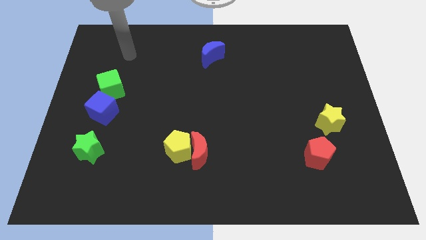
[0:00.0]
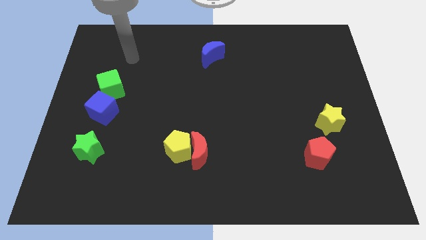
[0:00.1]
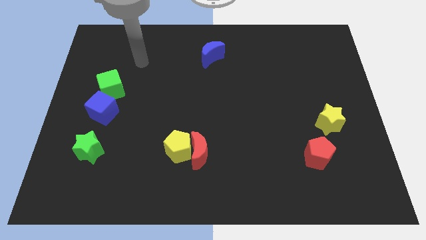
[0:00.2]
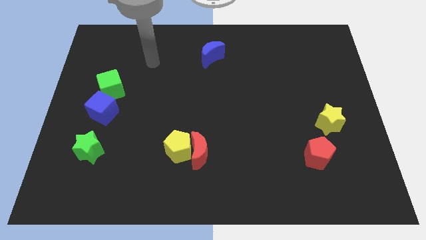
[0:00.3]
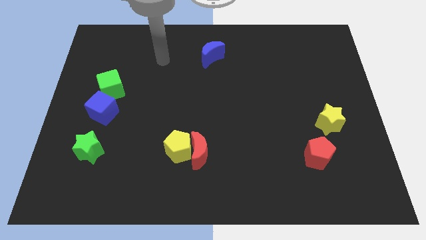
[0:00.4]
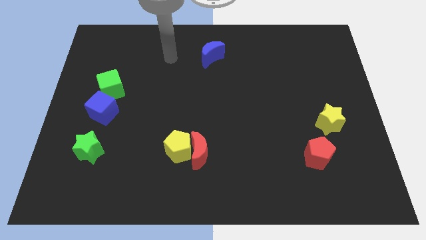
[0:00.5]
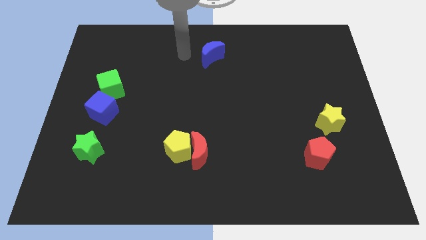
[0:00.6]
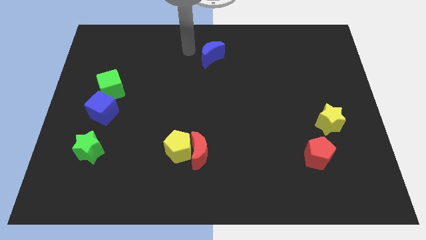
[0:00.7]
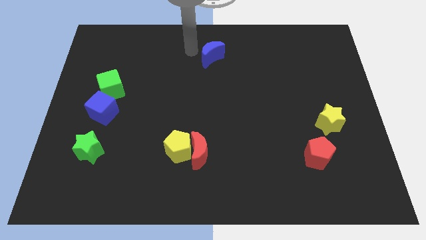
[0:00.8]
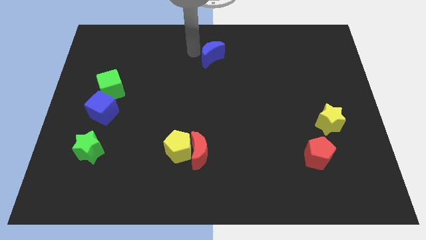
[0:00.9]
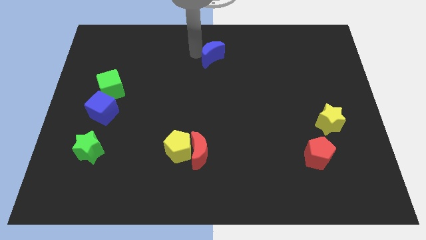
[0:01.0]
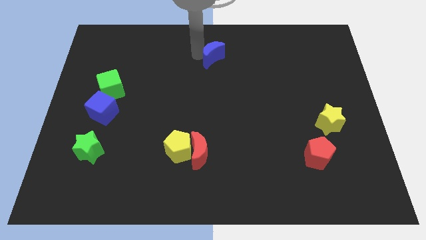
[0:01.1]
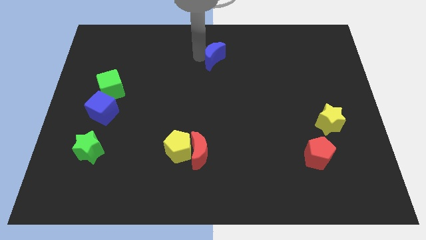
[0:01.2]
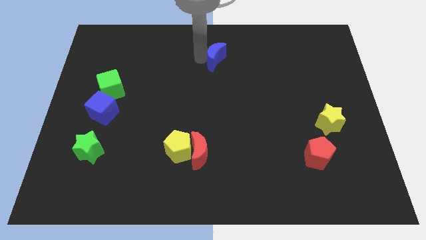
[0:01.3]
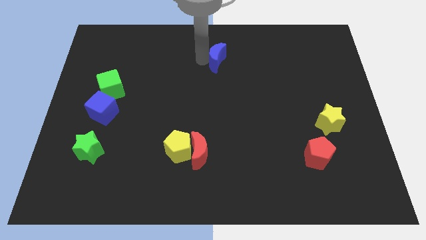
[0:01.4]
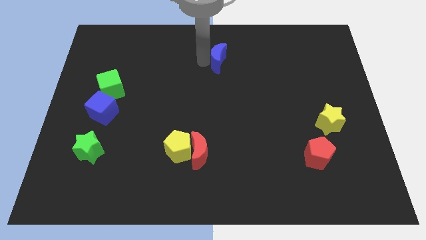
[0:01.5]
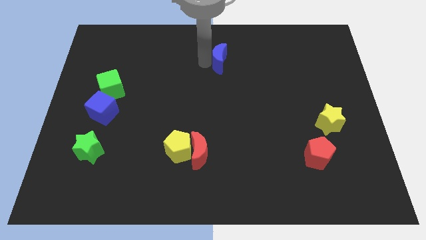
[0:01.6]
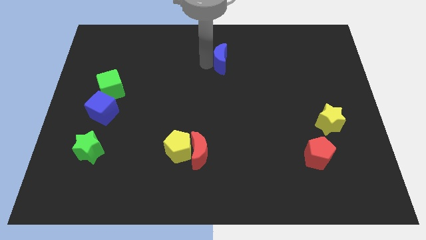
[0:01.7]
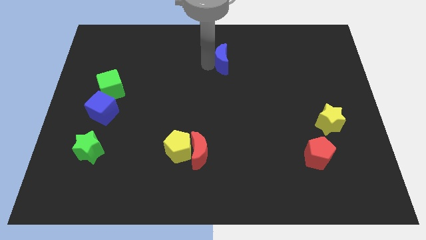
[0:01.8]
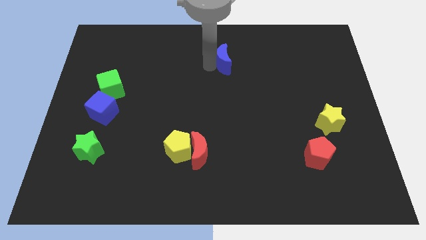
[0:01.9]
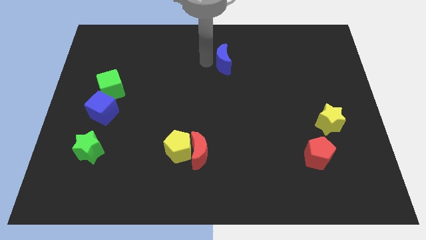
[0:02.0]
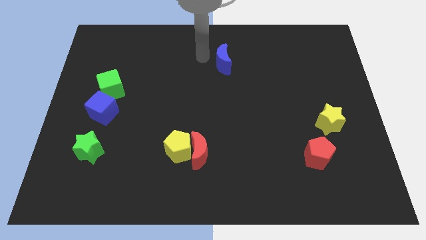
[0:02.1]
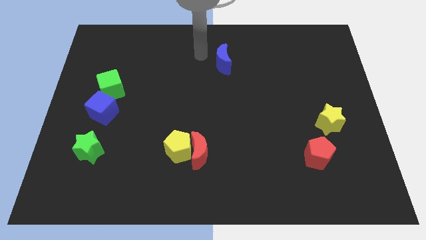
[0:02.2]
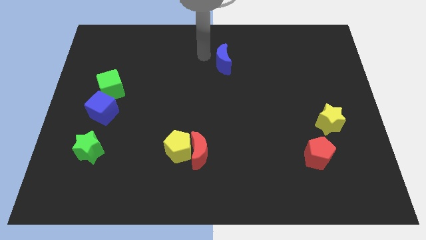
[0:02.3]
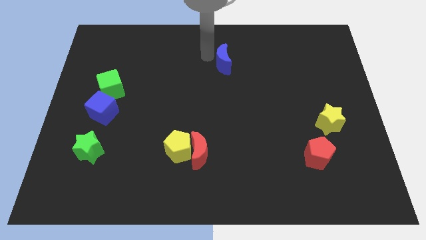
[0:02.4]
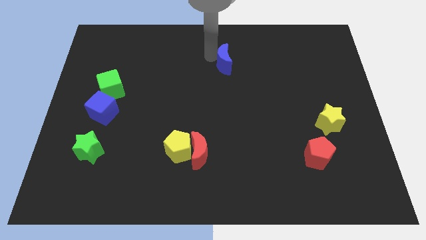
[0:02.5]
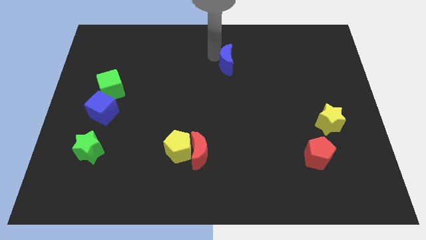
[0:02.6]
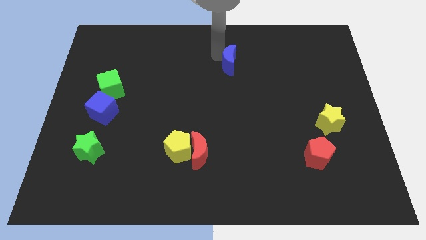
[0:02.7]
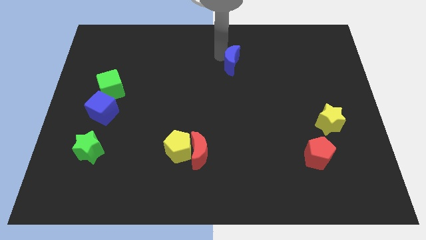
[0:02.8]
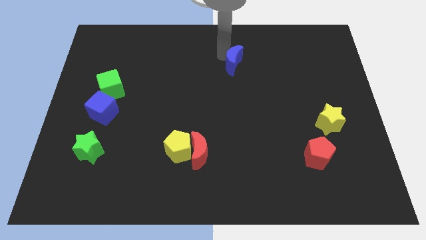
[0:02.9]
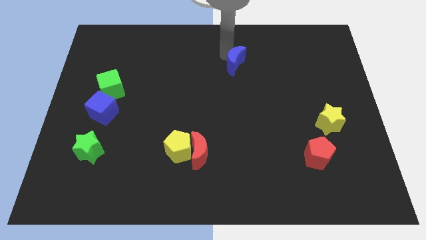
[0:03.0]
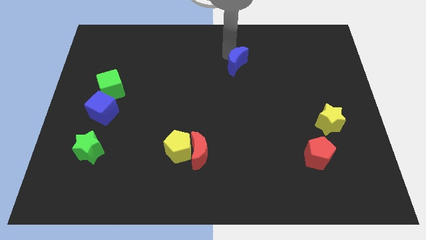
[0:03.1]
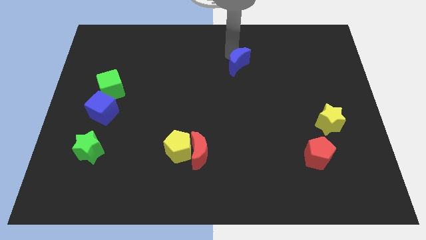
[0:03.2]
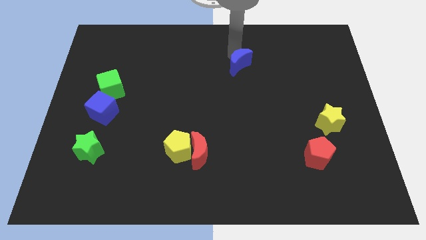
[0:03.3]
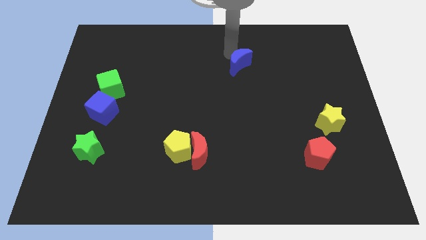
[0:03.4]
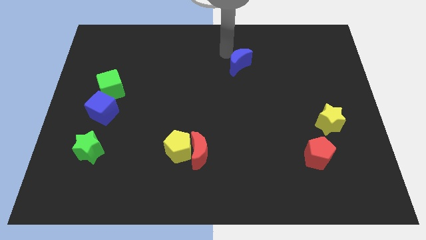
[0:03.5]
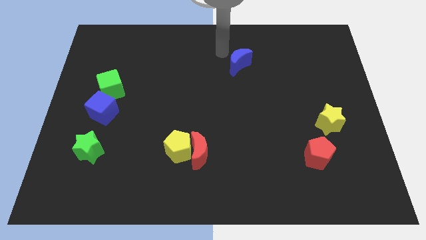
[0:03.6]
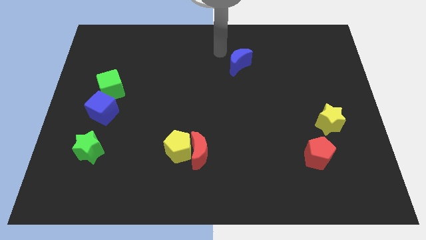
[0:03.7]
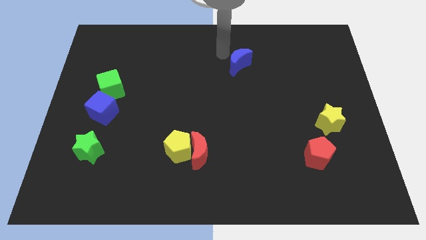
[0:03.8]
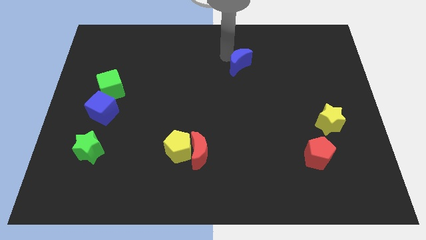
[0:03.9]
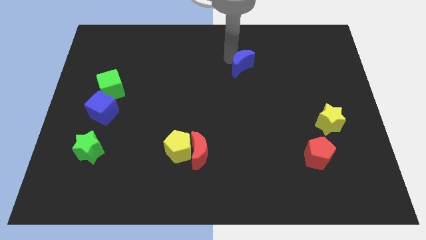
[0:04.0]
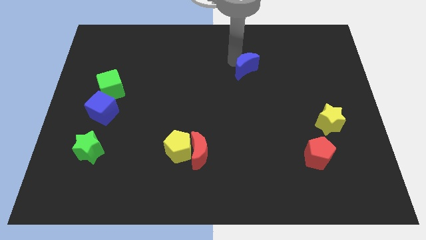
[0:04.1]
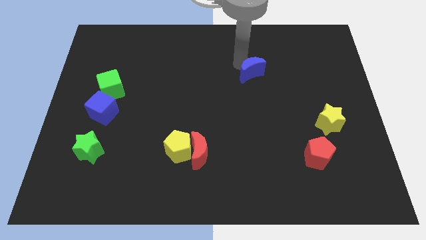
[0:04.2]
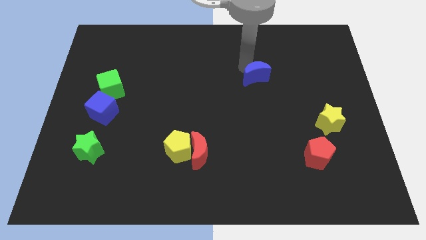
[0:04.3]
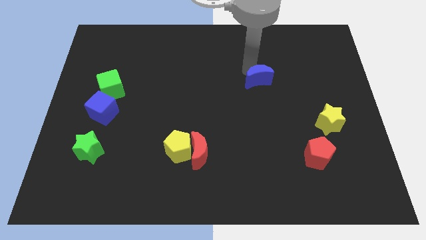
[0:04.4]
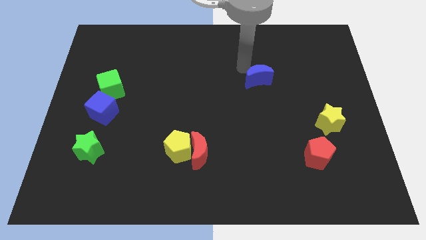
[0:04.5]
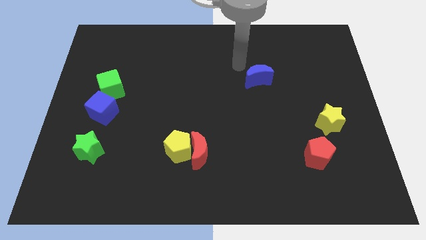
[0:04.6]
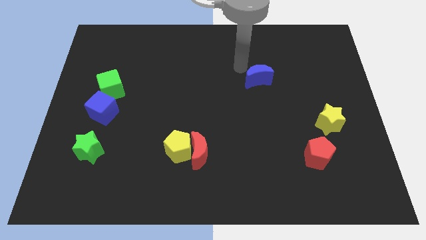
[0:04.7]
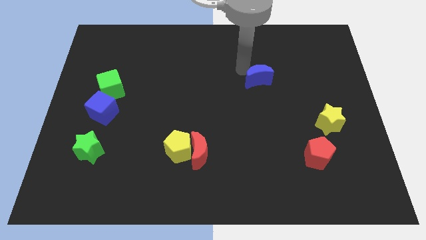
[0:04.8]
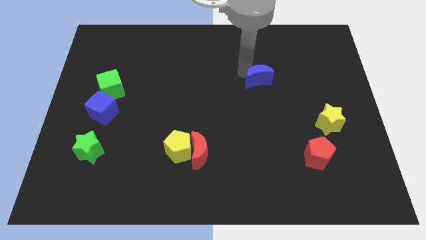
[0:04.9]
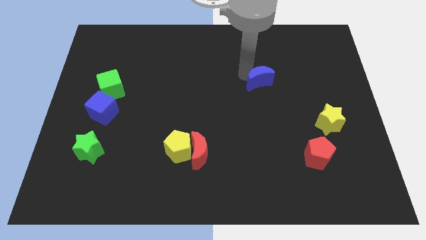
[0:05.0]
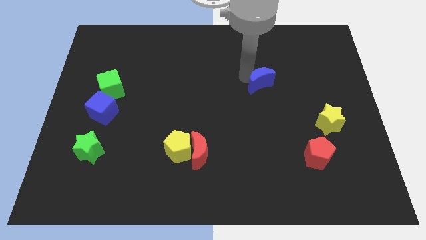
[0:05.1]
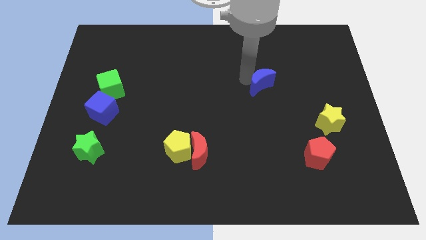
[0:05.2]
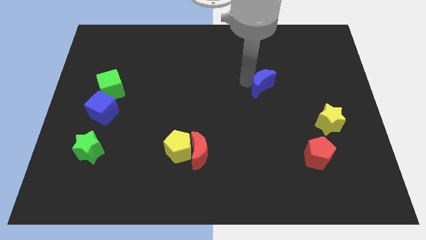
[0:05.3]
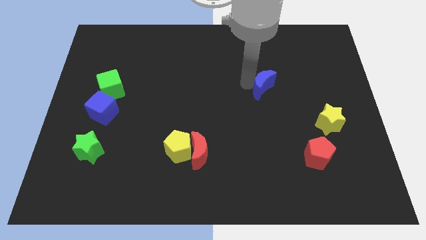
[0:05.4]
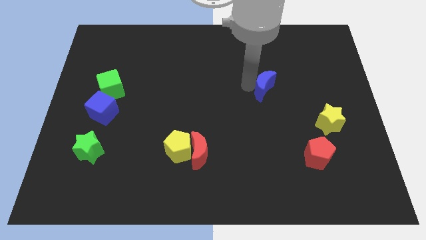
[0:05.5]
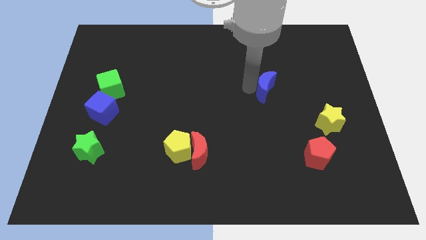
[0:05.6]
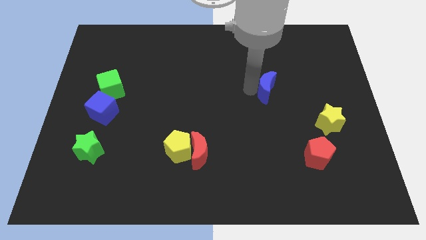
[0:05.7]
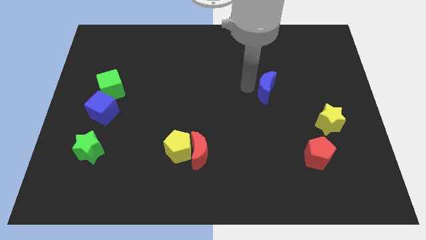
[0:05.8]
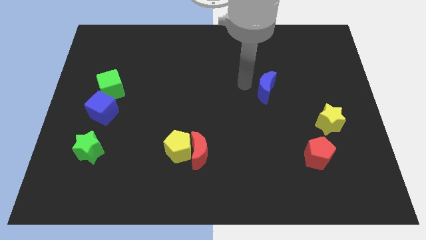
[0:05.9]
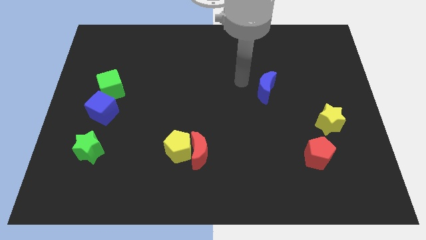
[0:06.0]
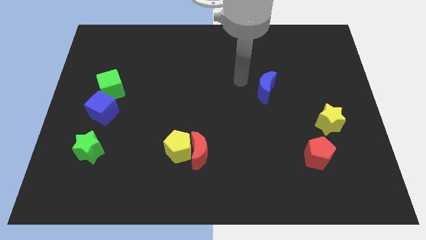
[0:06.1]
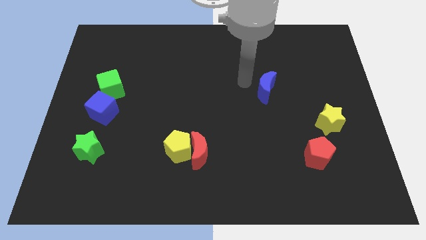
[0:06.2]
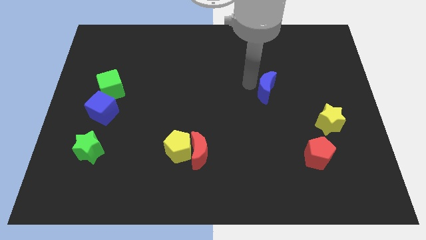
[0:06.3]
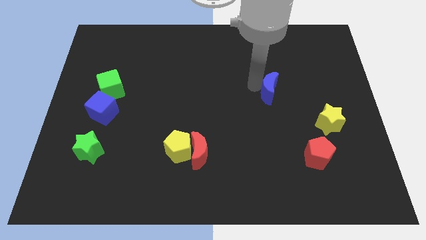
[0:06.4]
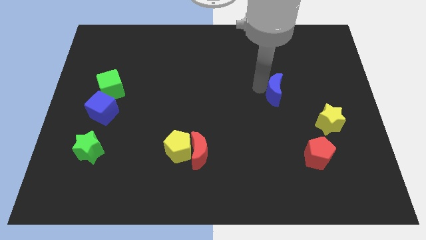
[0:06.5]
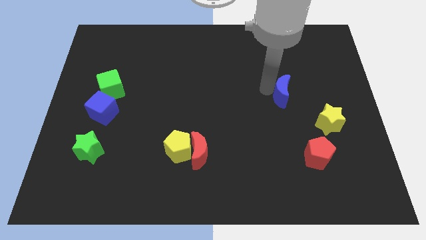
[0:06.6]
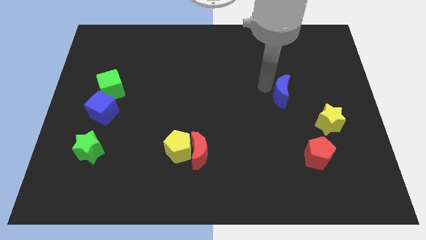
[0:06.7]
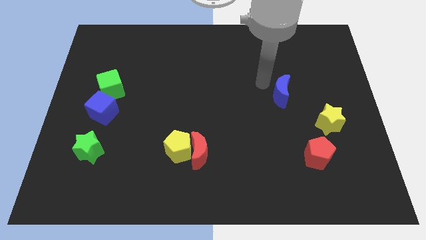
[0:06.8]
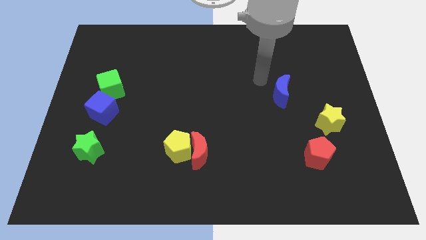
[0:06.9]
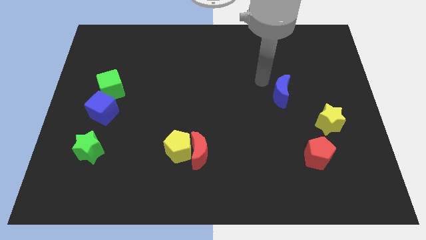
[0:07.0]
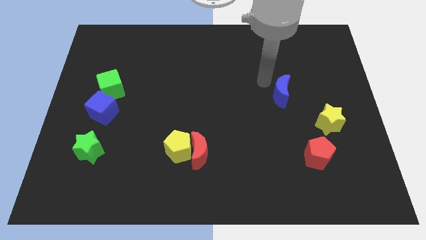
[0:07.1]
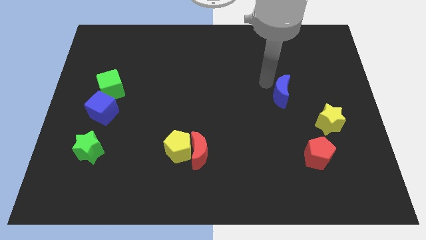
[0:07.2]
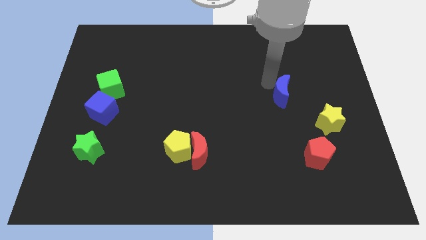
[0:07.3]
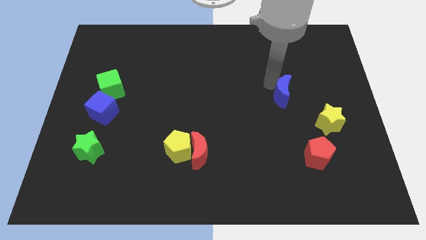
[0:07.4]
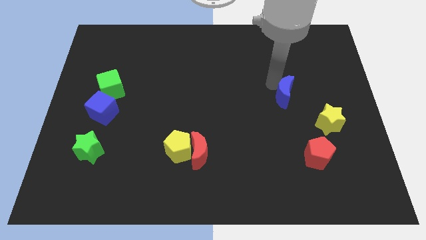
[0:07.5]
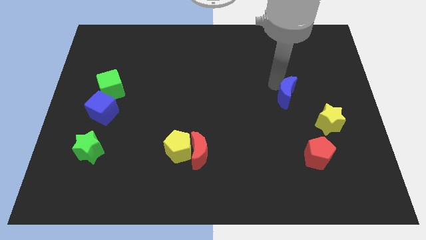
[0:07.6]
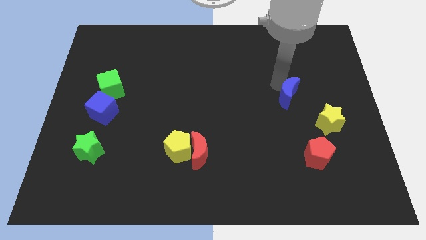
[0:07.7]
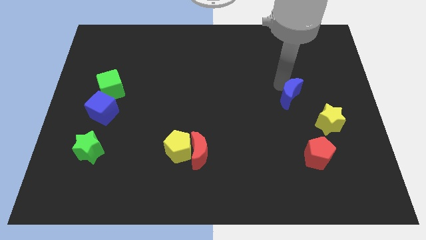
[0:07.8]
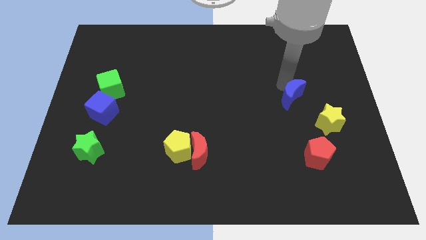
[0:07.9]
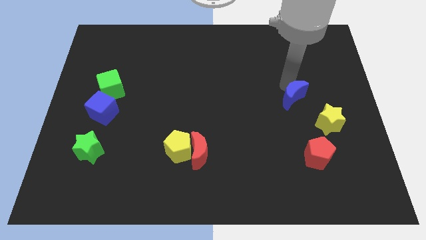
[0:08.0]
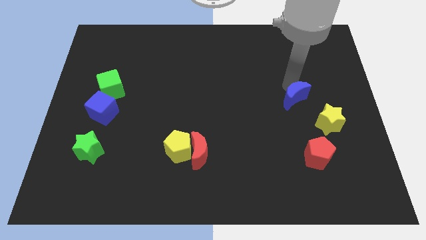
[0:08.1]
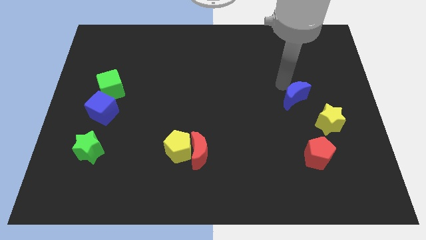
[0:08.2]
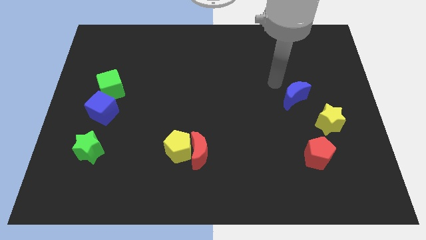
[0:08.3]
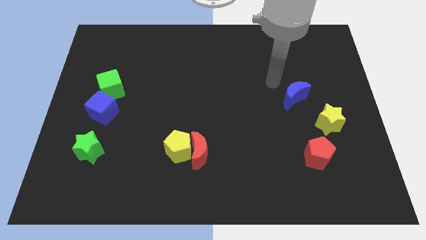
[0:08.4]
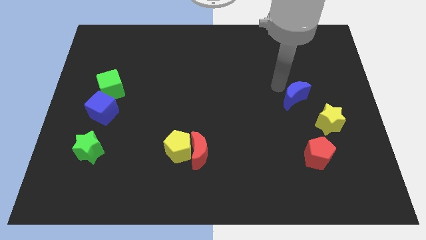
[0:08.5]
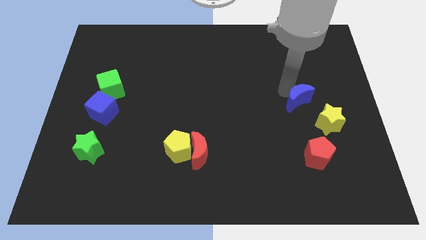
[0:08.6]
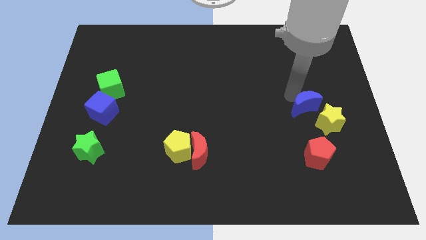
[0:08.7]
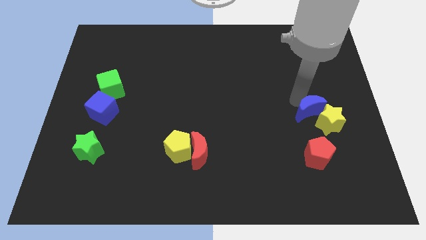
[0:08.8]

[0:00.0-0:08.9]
move the blue moon close to the yellow star
